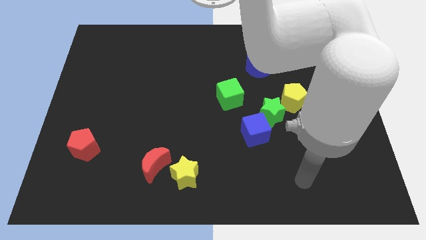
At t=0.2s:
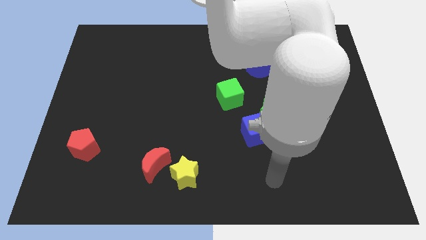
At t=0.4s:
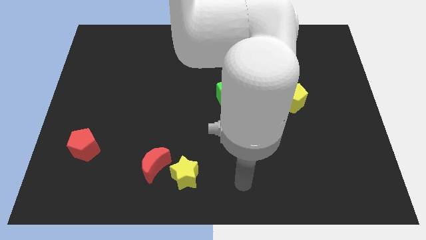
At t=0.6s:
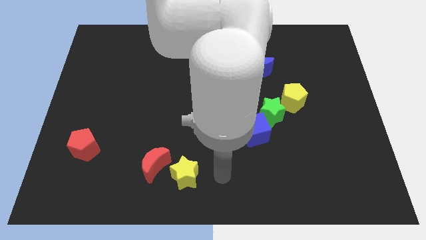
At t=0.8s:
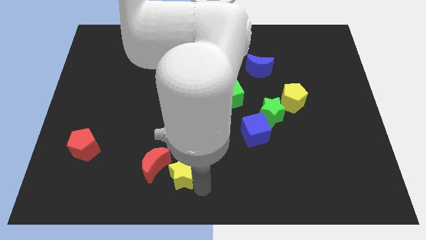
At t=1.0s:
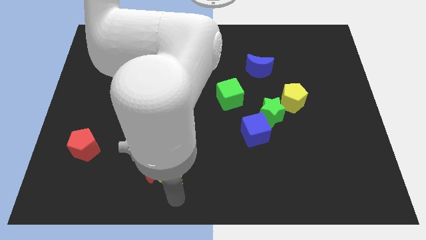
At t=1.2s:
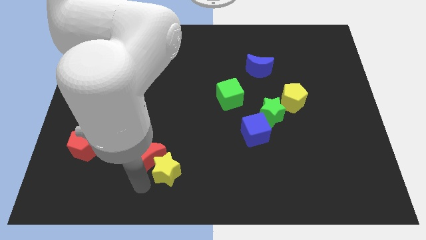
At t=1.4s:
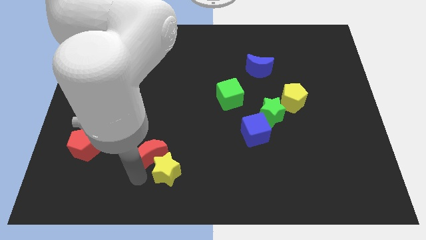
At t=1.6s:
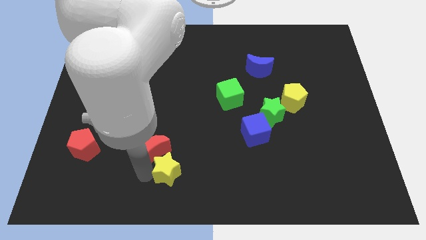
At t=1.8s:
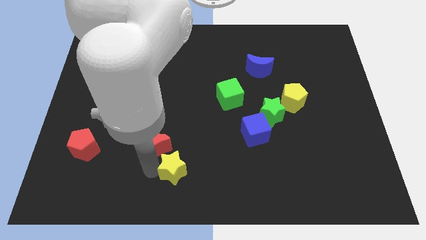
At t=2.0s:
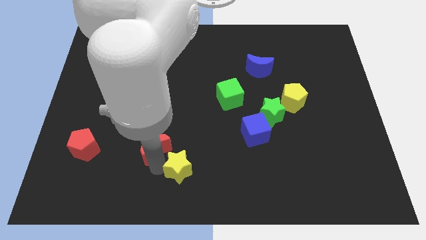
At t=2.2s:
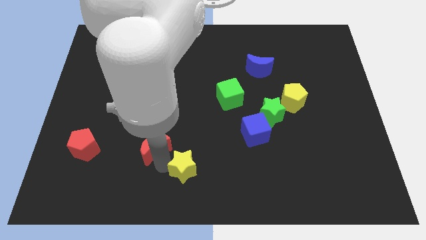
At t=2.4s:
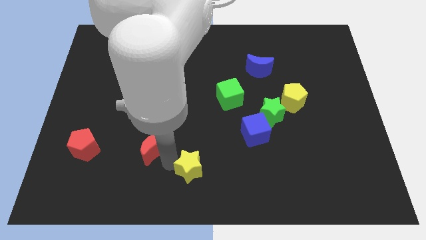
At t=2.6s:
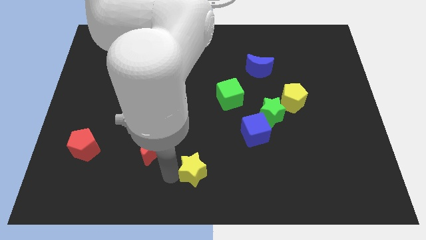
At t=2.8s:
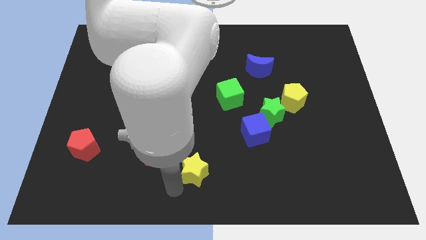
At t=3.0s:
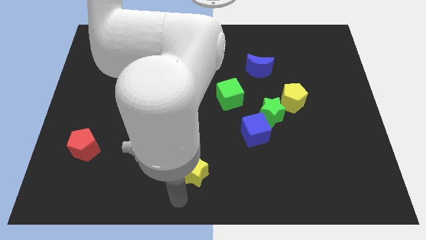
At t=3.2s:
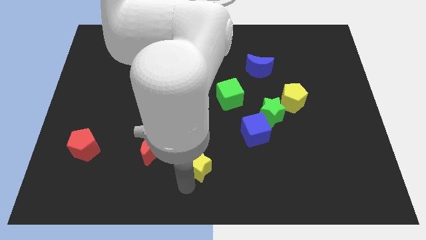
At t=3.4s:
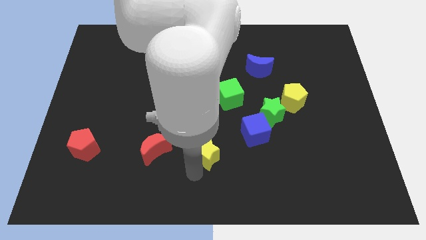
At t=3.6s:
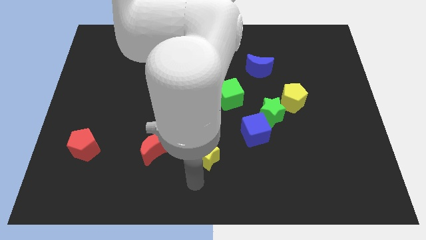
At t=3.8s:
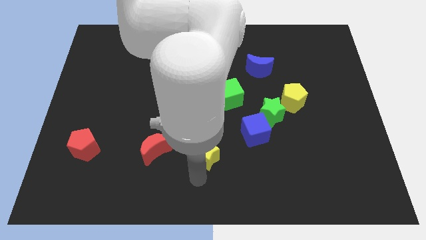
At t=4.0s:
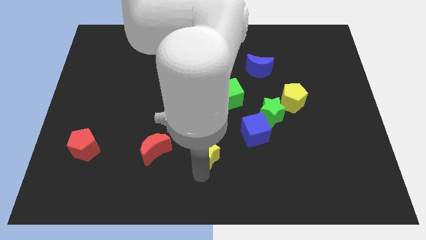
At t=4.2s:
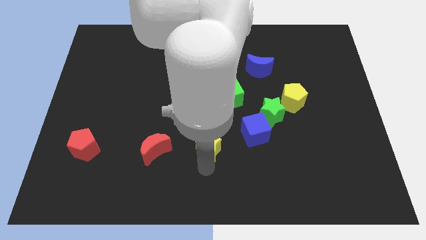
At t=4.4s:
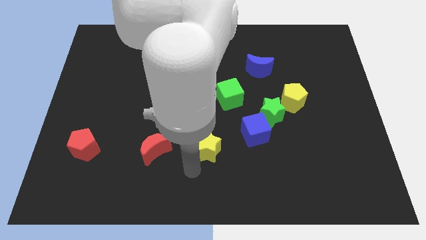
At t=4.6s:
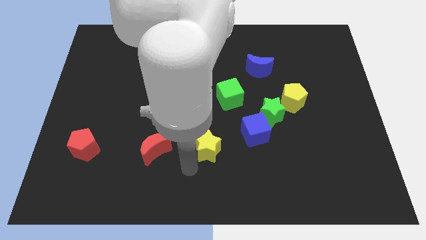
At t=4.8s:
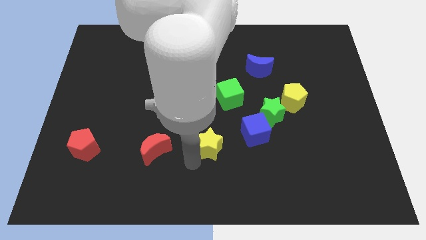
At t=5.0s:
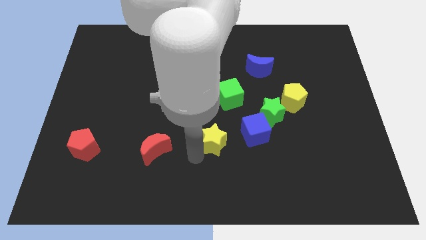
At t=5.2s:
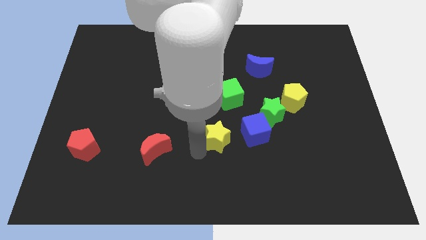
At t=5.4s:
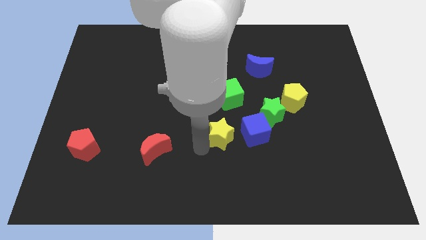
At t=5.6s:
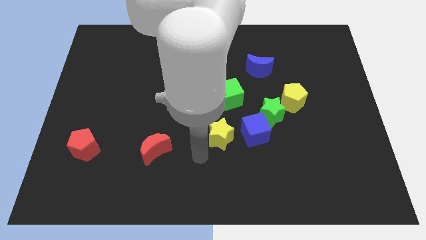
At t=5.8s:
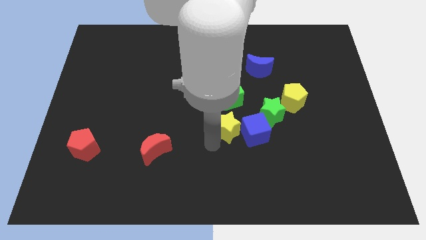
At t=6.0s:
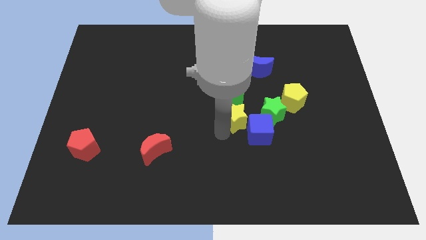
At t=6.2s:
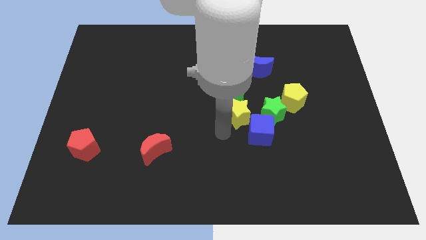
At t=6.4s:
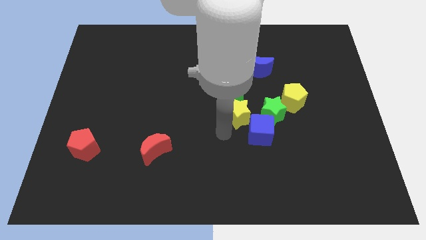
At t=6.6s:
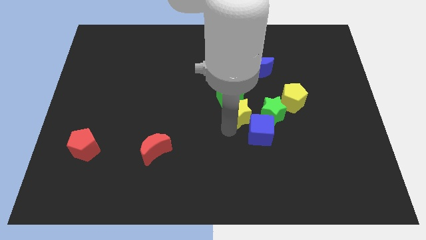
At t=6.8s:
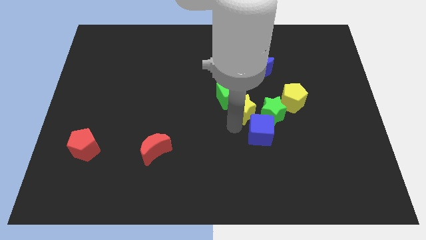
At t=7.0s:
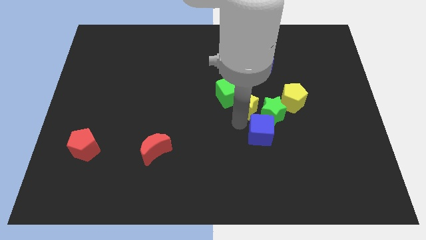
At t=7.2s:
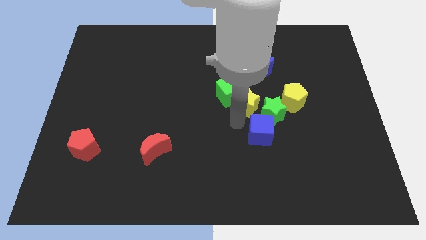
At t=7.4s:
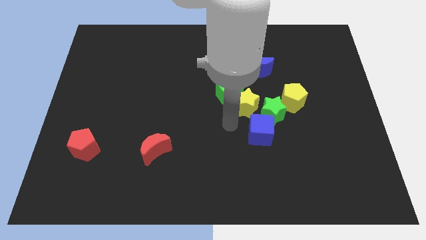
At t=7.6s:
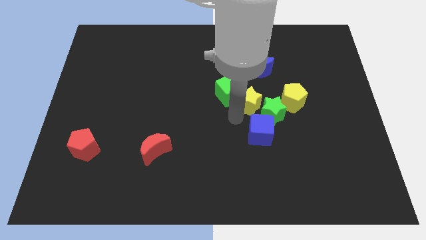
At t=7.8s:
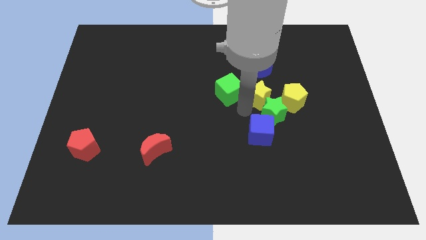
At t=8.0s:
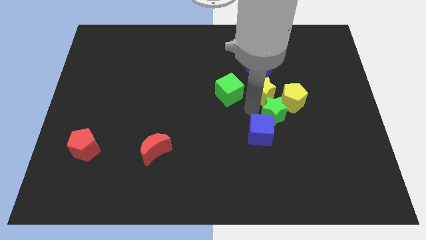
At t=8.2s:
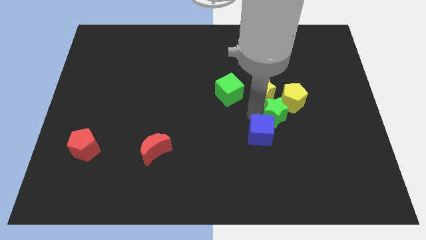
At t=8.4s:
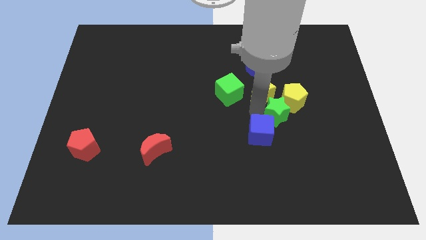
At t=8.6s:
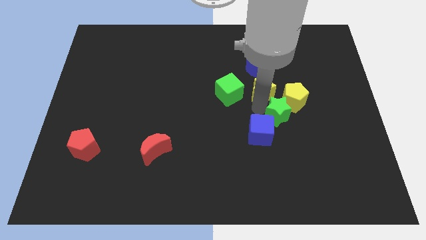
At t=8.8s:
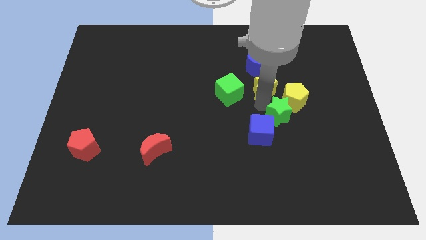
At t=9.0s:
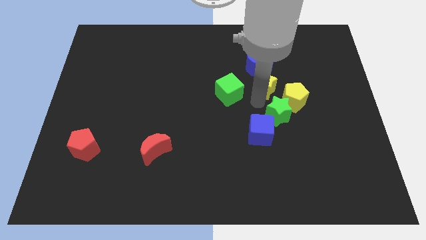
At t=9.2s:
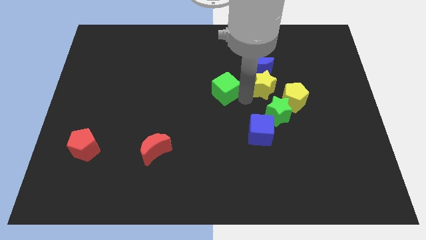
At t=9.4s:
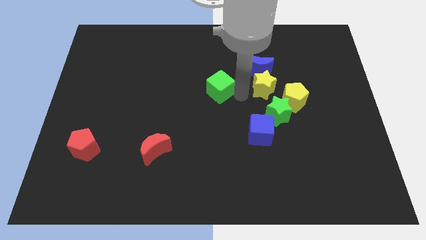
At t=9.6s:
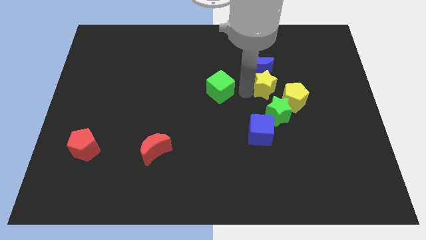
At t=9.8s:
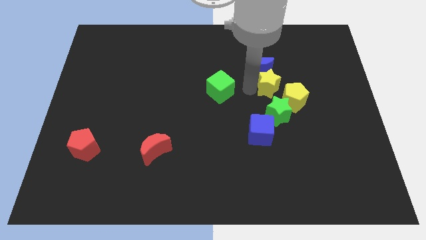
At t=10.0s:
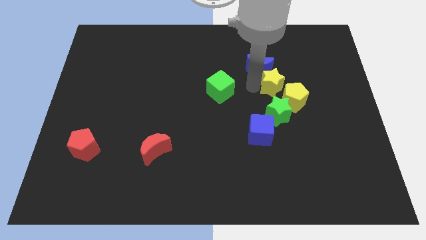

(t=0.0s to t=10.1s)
move the yellow star to the top side of the yellow pentagon

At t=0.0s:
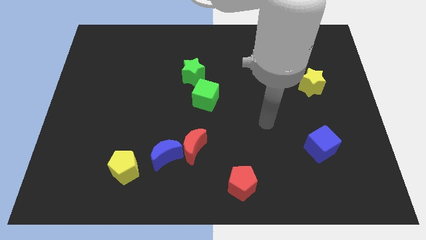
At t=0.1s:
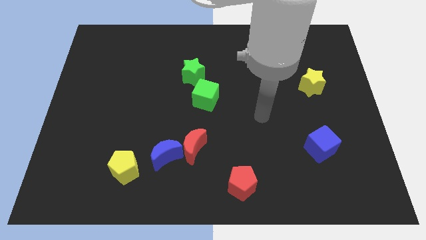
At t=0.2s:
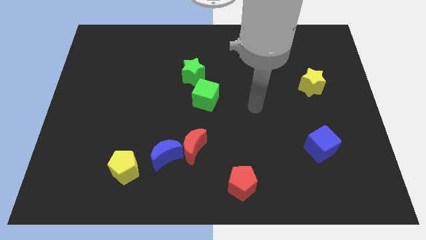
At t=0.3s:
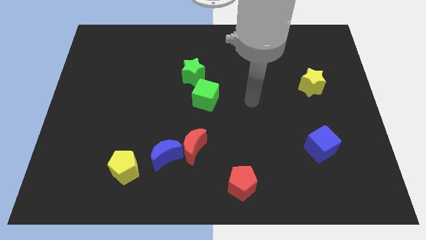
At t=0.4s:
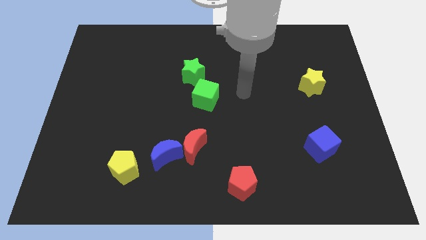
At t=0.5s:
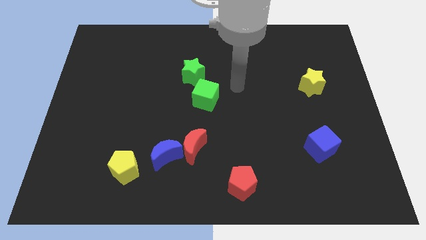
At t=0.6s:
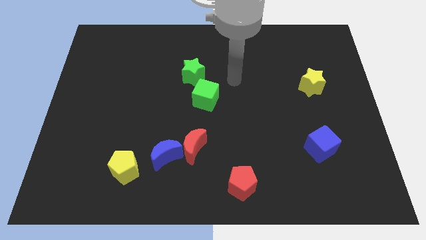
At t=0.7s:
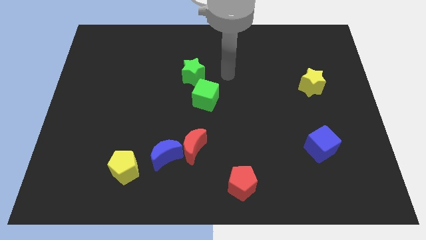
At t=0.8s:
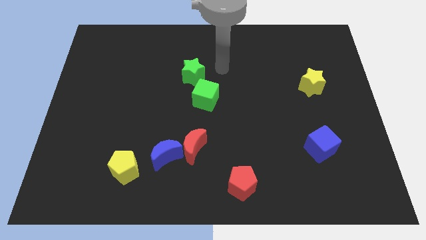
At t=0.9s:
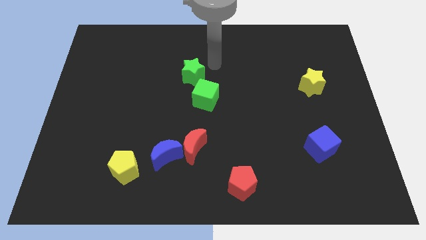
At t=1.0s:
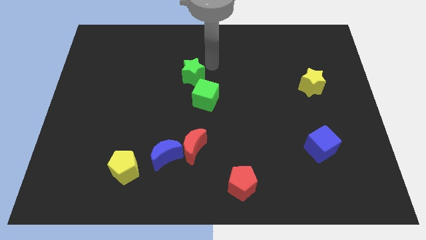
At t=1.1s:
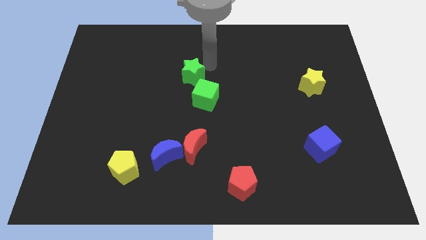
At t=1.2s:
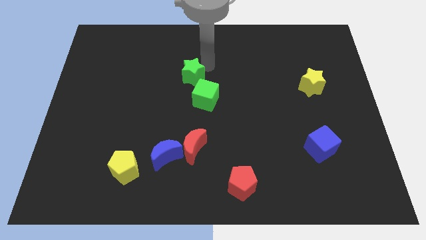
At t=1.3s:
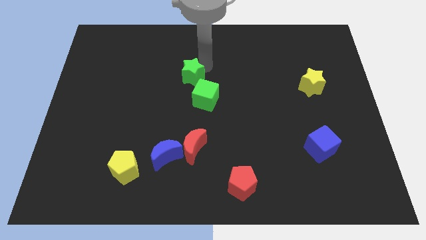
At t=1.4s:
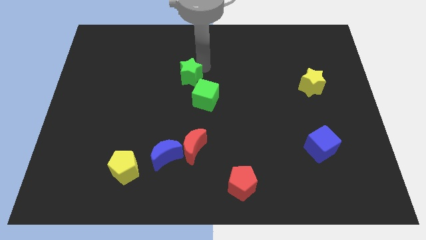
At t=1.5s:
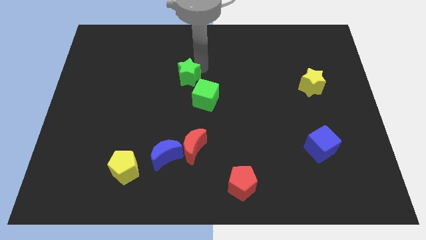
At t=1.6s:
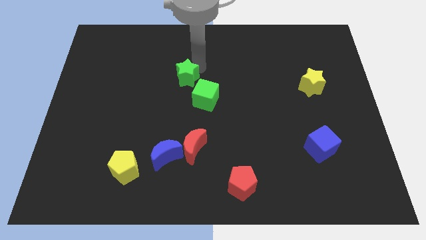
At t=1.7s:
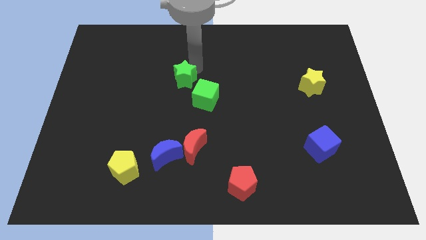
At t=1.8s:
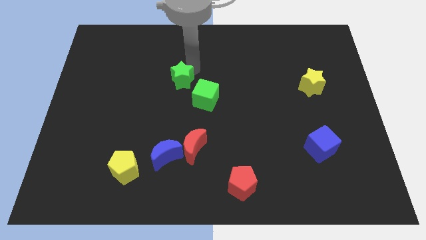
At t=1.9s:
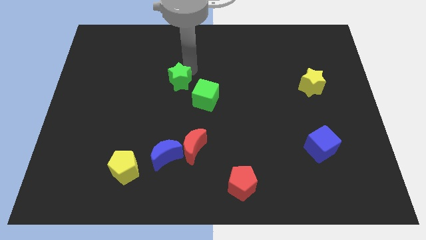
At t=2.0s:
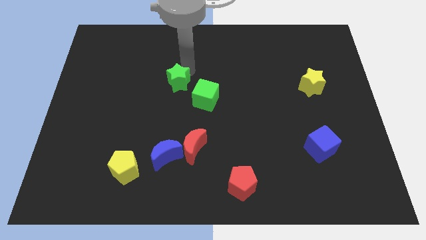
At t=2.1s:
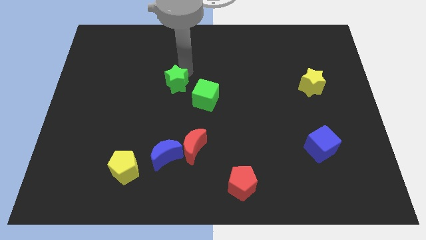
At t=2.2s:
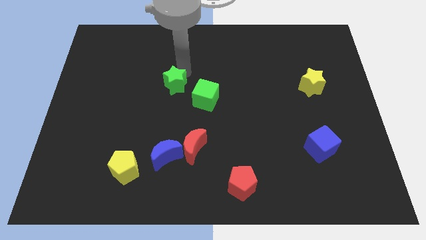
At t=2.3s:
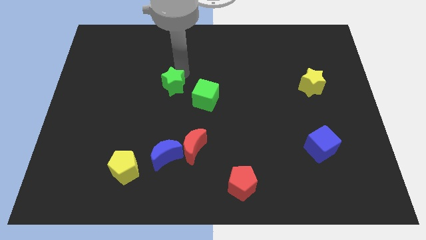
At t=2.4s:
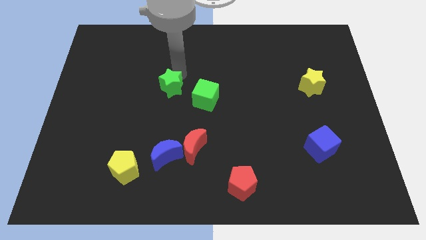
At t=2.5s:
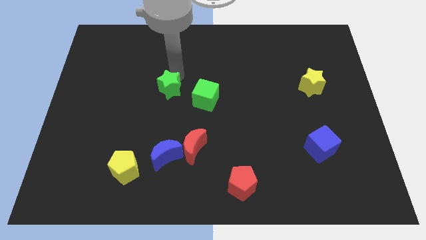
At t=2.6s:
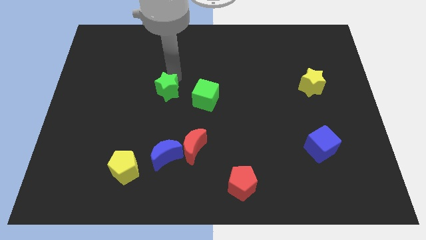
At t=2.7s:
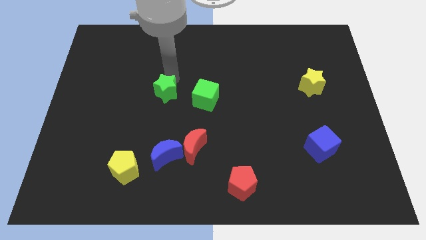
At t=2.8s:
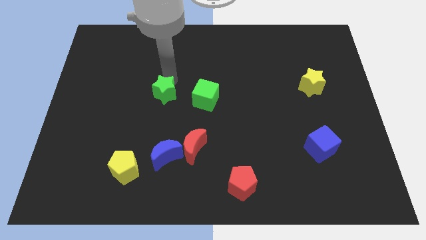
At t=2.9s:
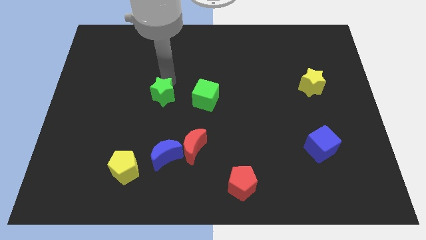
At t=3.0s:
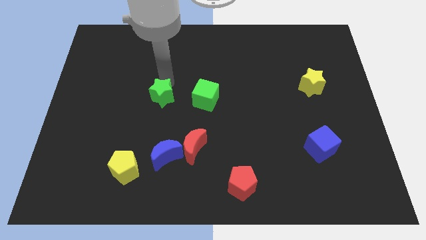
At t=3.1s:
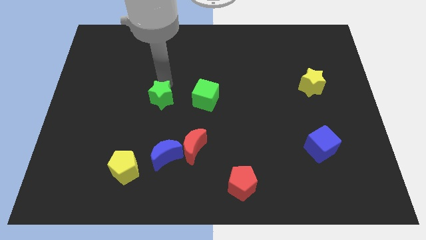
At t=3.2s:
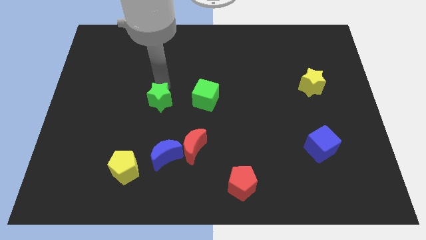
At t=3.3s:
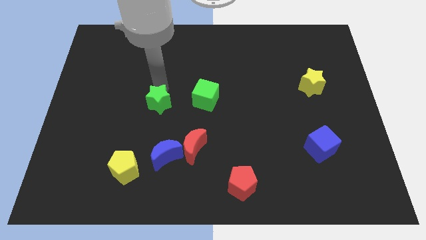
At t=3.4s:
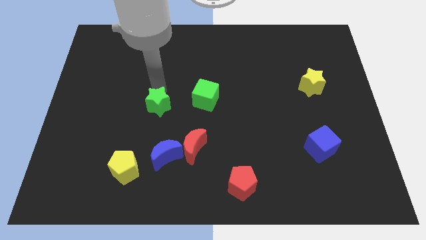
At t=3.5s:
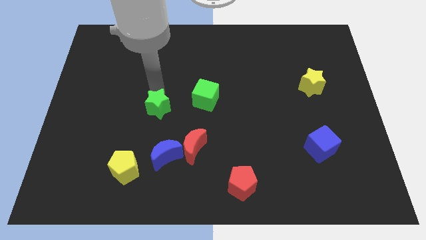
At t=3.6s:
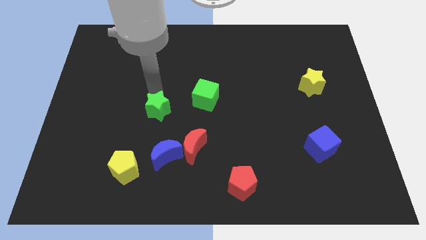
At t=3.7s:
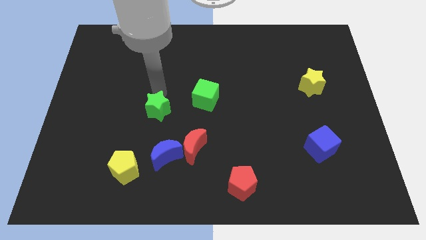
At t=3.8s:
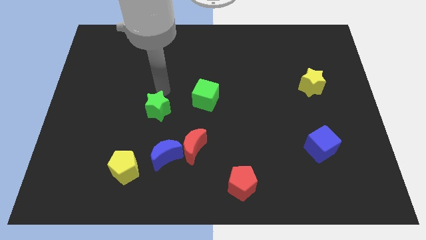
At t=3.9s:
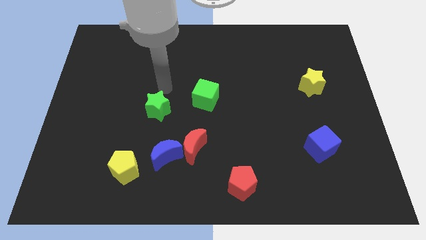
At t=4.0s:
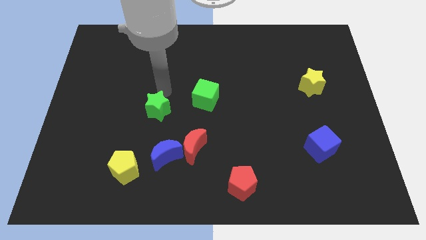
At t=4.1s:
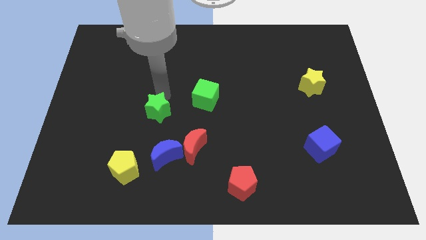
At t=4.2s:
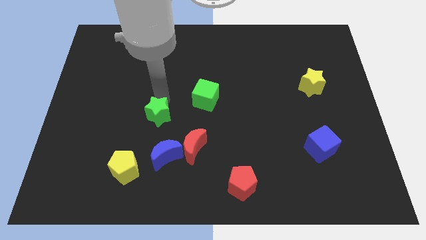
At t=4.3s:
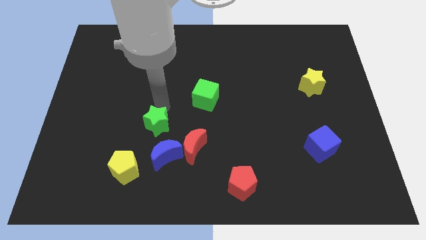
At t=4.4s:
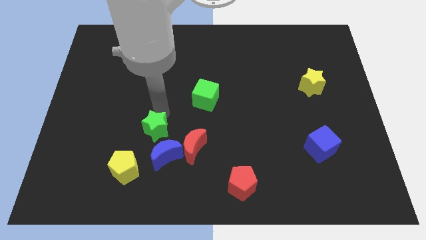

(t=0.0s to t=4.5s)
slide the green star to the left of the red moon
